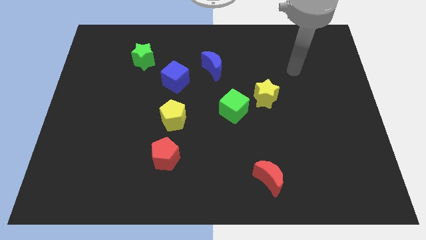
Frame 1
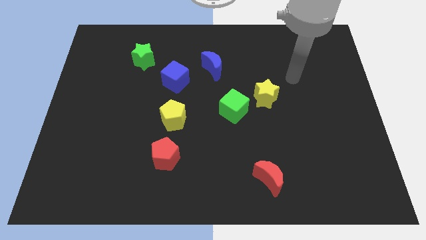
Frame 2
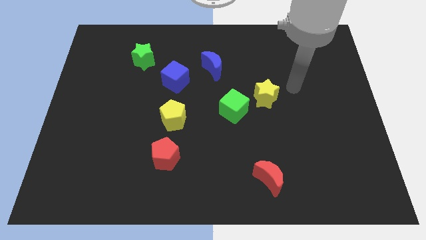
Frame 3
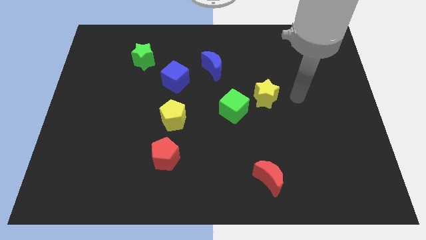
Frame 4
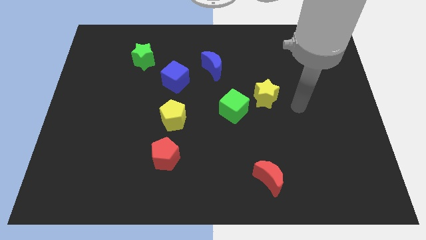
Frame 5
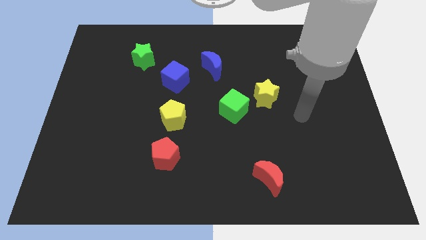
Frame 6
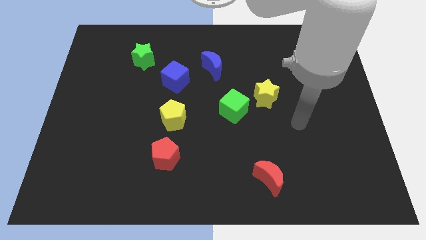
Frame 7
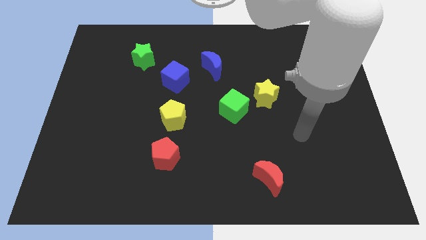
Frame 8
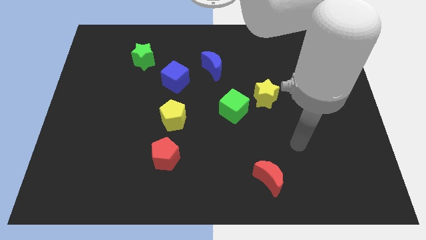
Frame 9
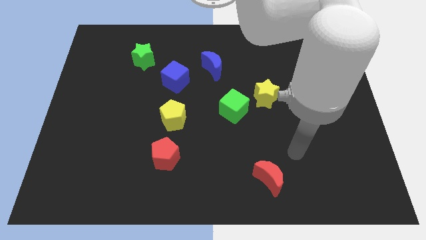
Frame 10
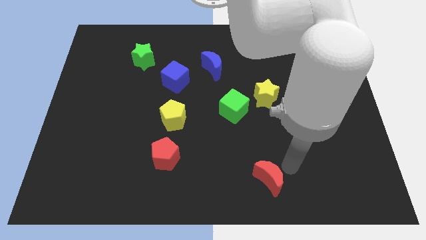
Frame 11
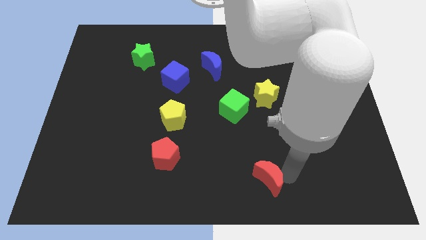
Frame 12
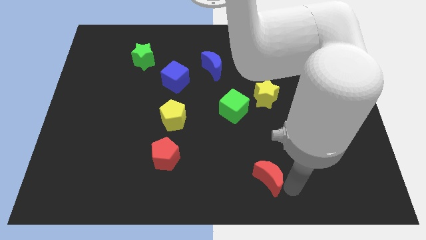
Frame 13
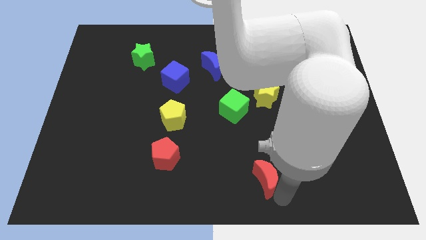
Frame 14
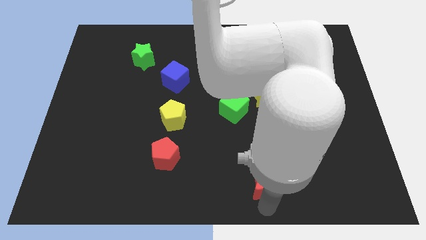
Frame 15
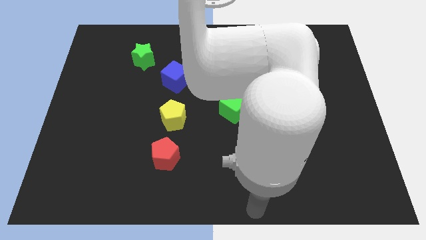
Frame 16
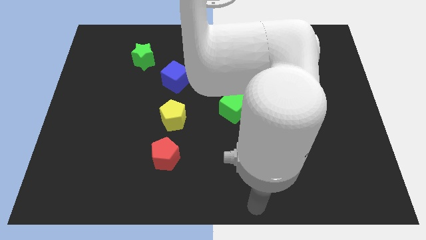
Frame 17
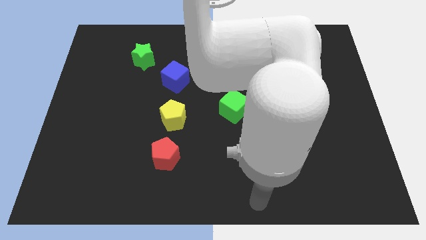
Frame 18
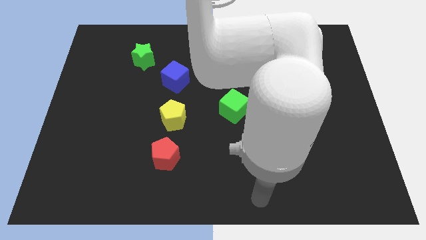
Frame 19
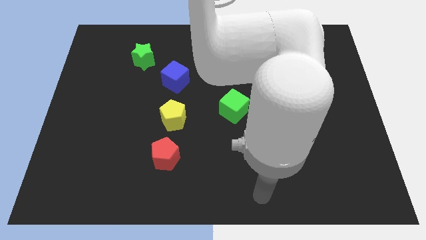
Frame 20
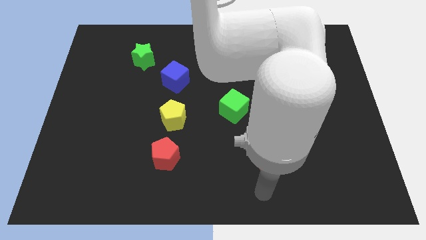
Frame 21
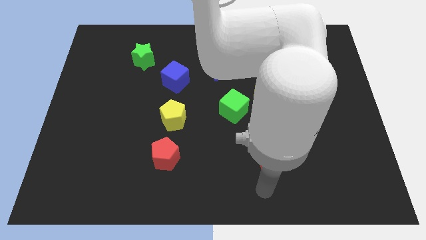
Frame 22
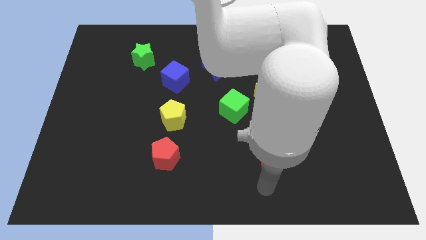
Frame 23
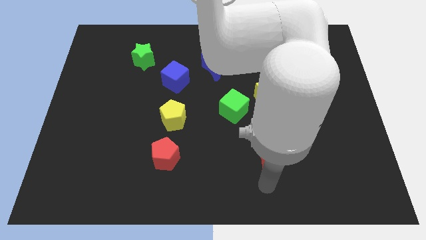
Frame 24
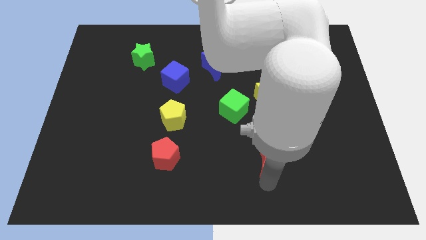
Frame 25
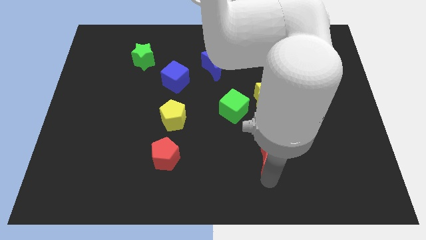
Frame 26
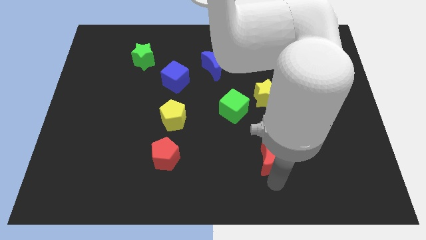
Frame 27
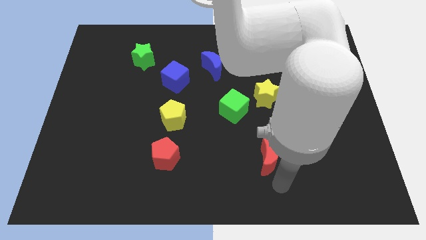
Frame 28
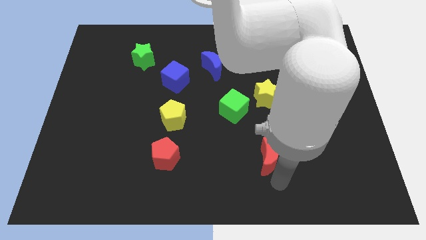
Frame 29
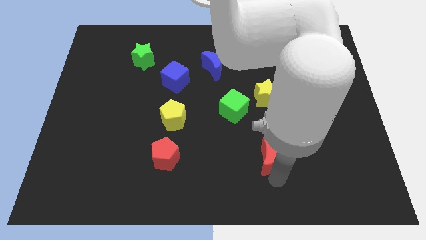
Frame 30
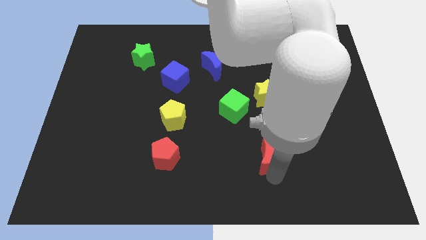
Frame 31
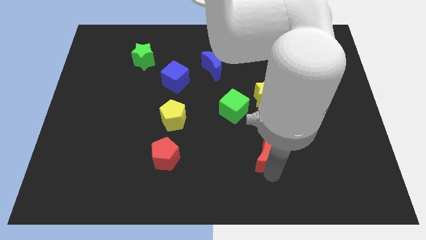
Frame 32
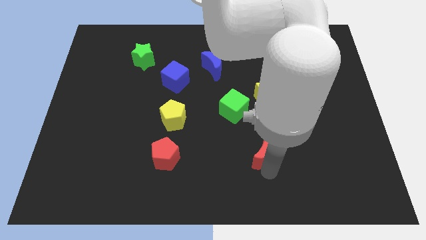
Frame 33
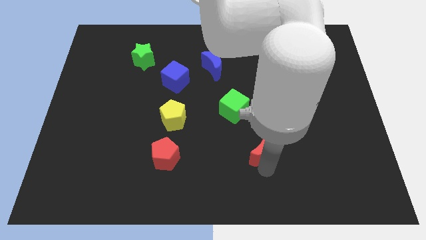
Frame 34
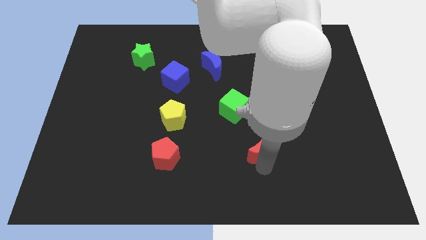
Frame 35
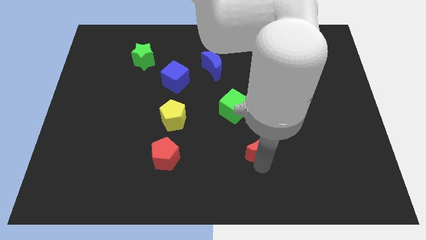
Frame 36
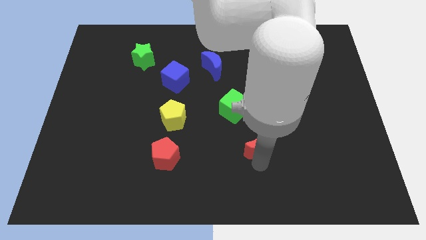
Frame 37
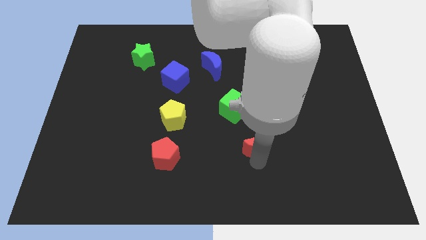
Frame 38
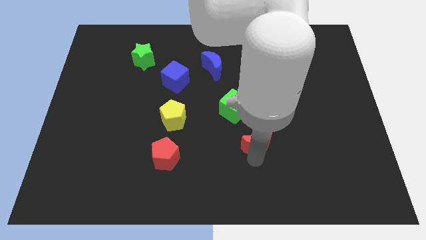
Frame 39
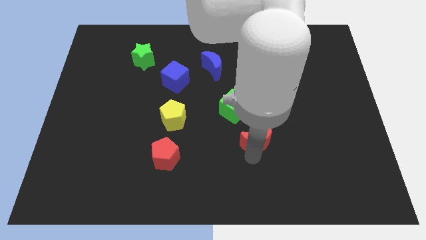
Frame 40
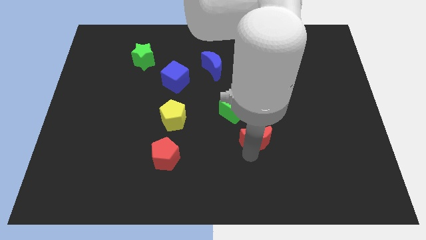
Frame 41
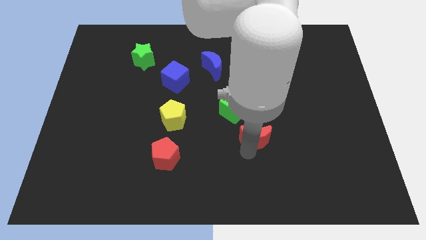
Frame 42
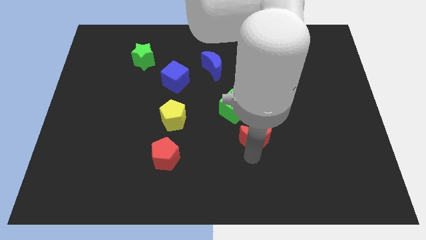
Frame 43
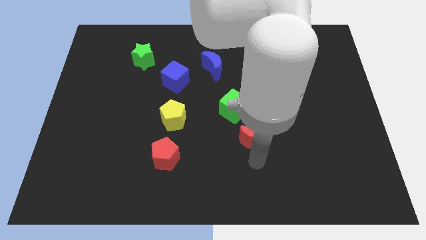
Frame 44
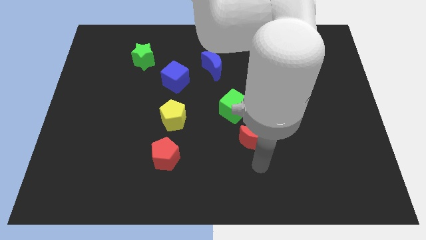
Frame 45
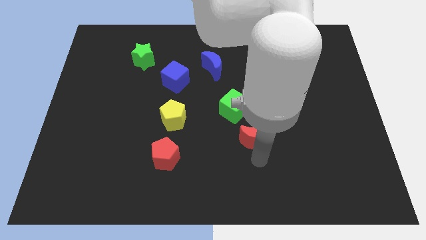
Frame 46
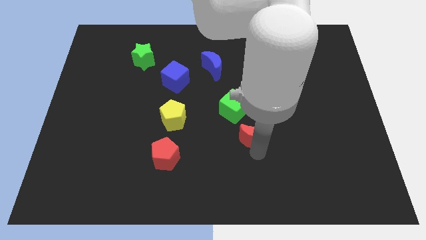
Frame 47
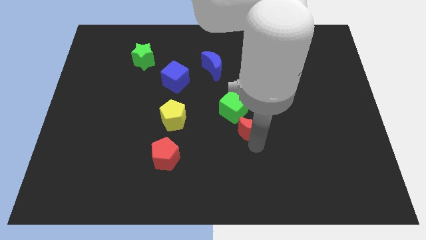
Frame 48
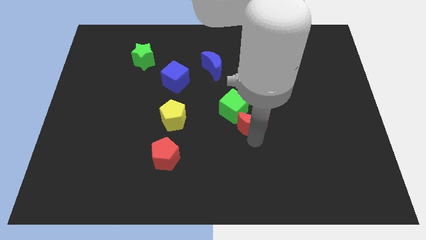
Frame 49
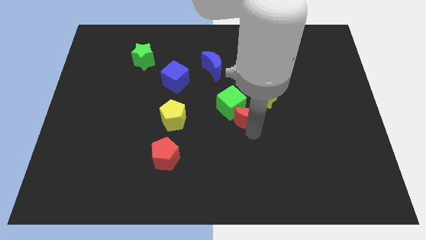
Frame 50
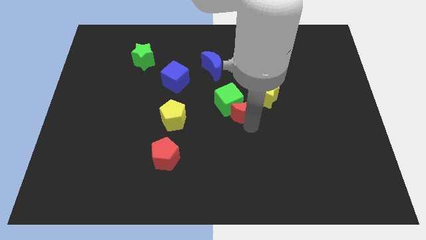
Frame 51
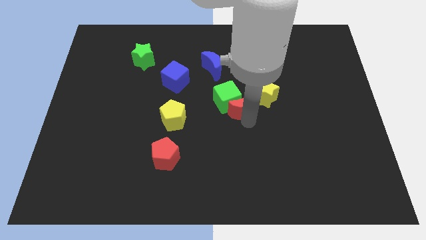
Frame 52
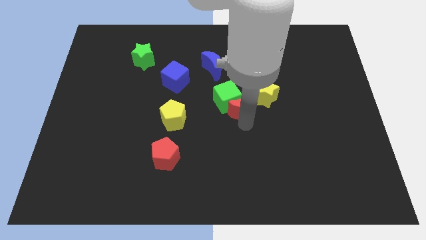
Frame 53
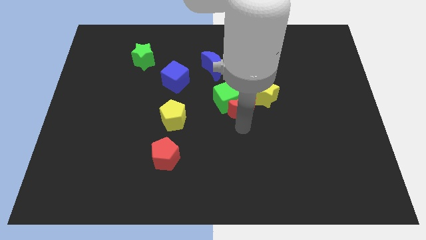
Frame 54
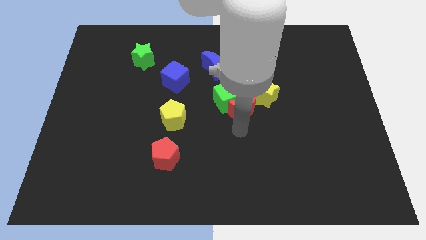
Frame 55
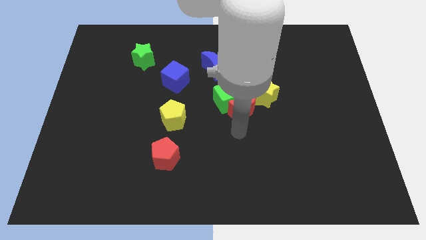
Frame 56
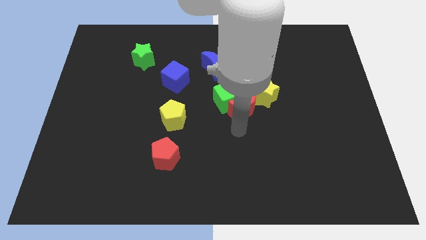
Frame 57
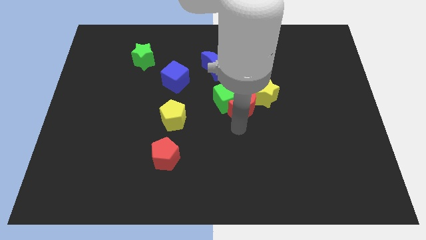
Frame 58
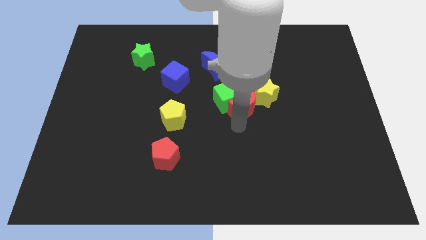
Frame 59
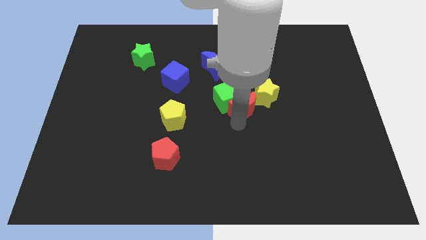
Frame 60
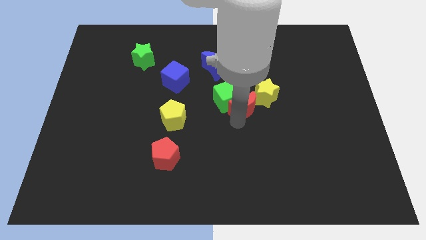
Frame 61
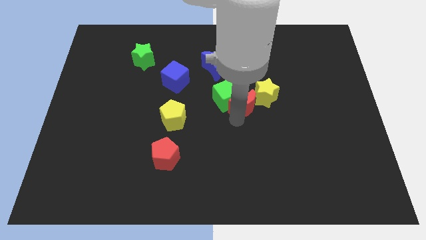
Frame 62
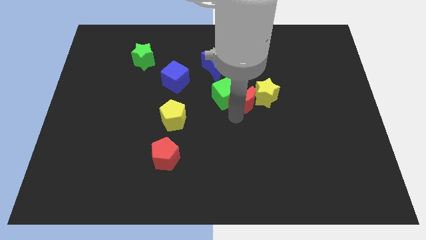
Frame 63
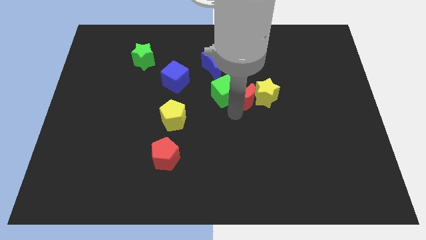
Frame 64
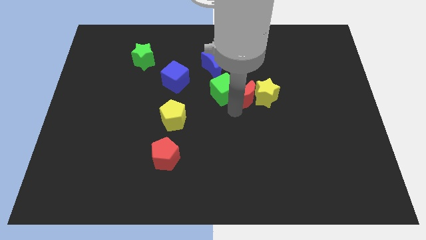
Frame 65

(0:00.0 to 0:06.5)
slide the red moon up

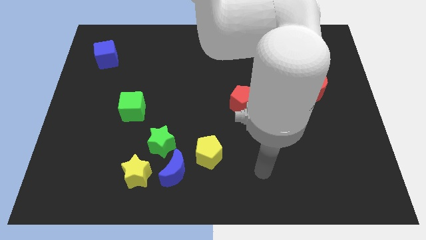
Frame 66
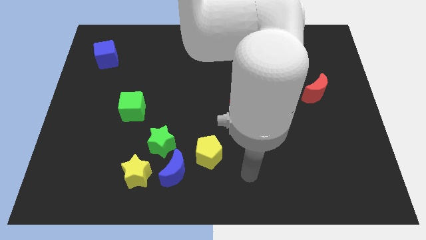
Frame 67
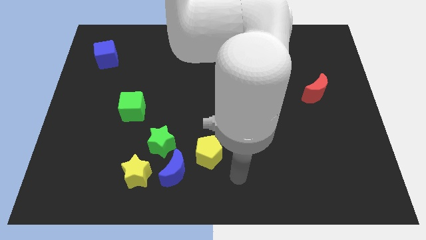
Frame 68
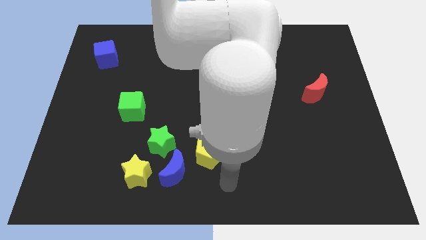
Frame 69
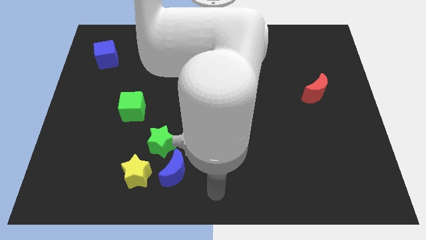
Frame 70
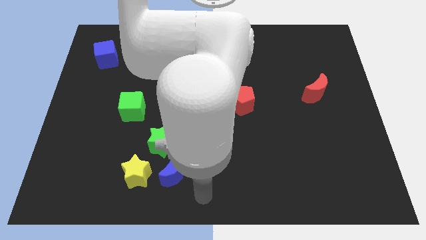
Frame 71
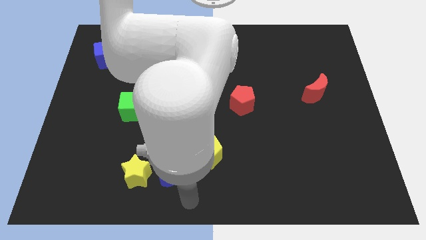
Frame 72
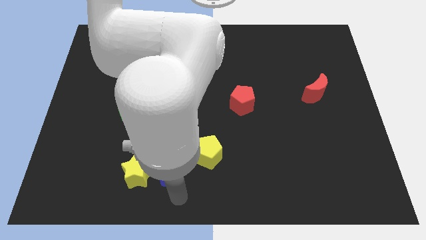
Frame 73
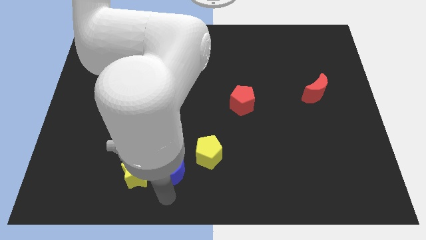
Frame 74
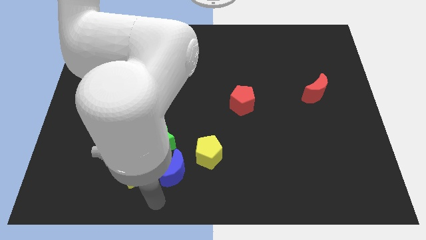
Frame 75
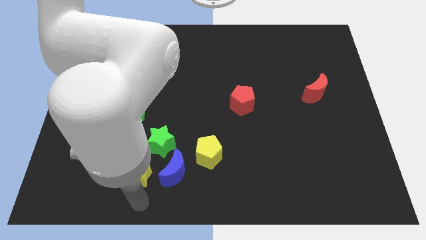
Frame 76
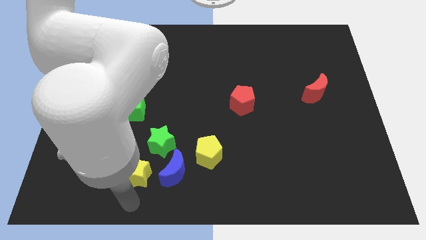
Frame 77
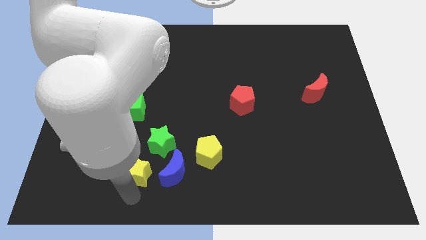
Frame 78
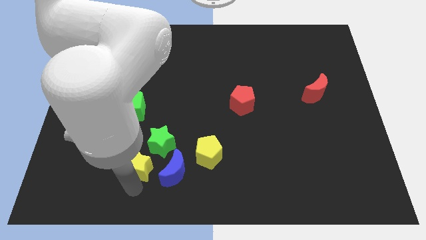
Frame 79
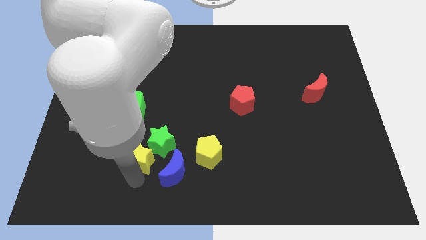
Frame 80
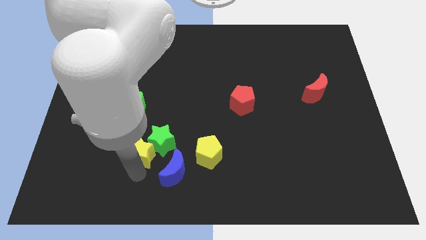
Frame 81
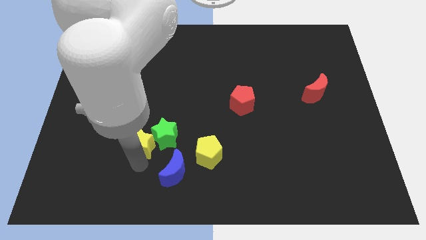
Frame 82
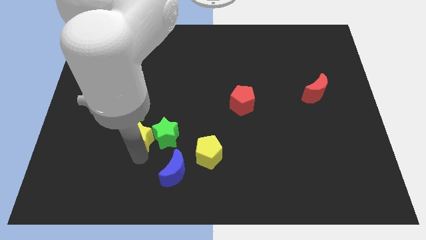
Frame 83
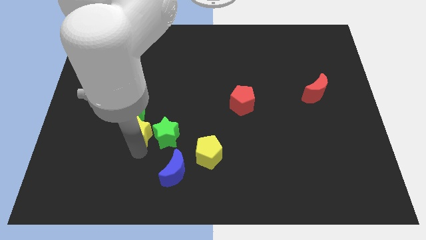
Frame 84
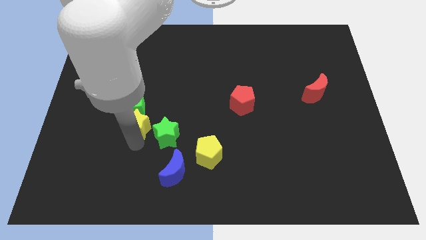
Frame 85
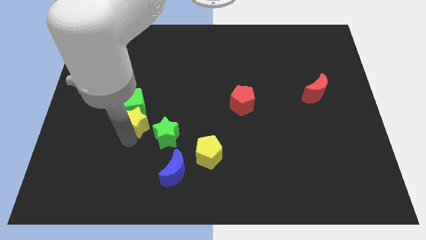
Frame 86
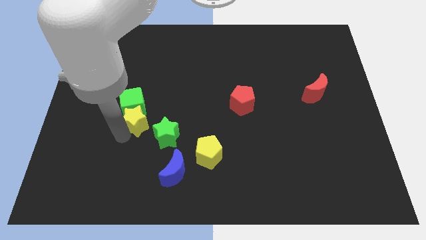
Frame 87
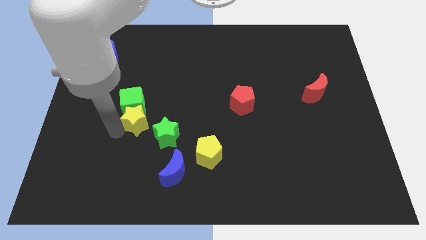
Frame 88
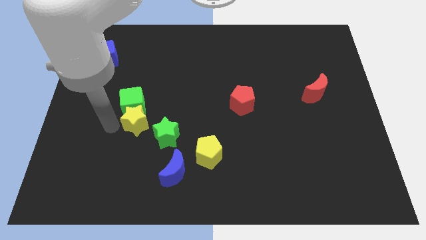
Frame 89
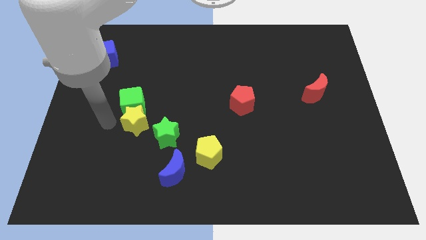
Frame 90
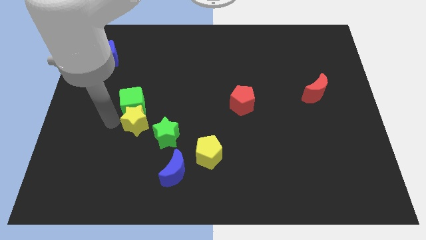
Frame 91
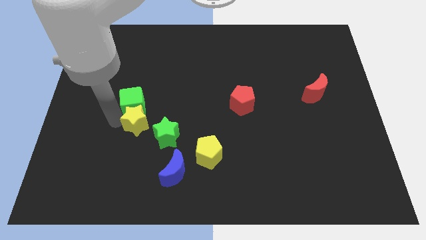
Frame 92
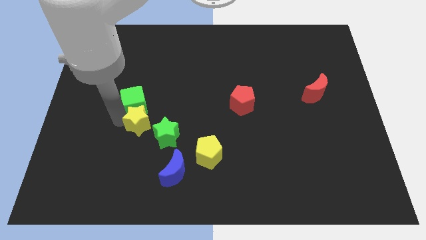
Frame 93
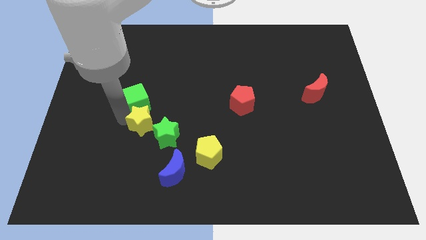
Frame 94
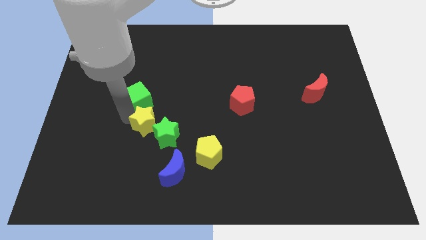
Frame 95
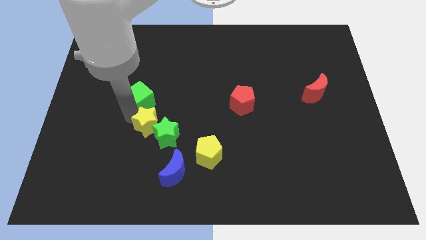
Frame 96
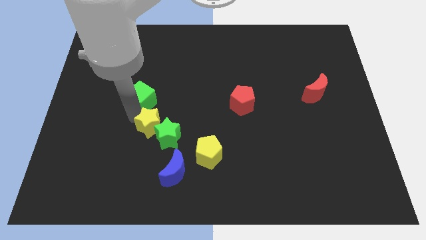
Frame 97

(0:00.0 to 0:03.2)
move the yellow star upwards and to the right diagonally slightly
